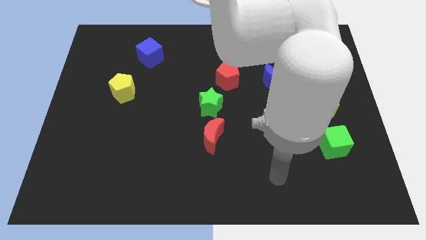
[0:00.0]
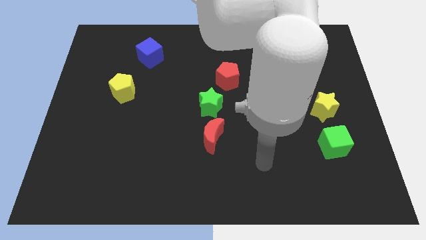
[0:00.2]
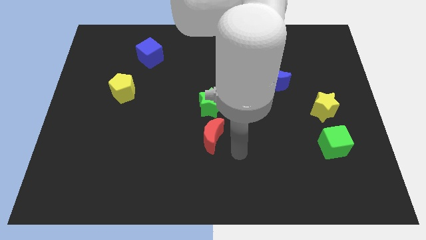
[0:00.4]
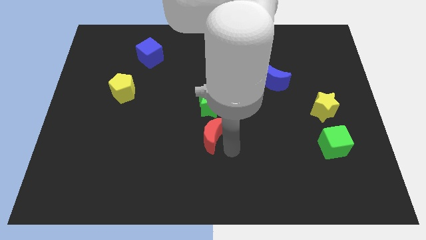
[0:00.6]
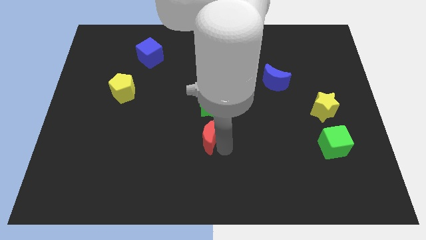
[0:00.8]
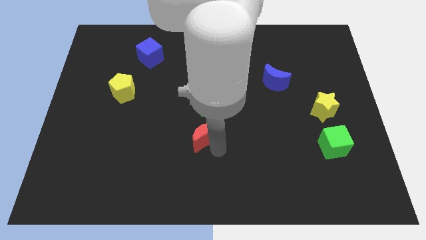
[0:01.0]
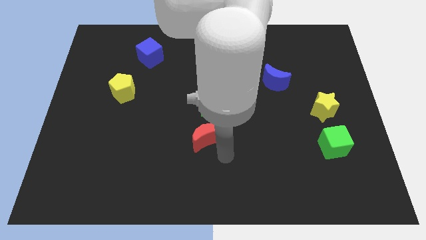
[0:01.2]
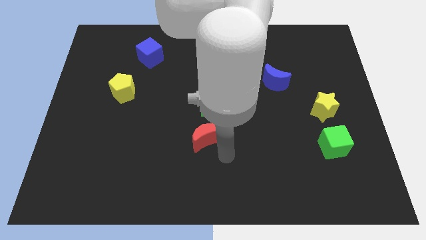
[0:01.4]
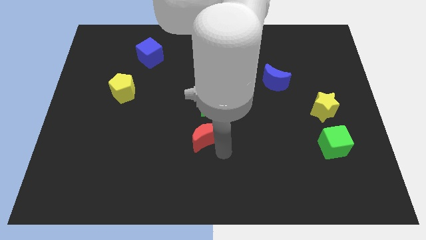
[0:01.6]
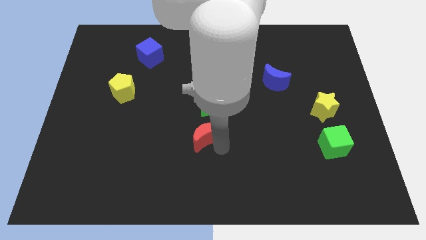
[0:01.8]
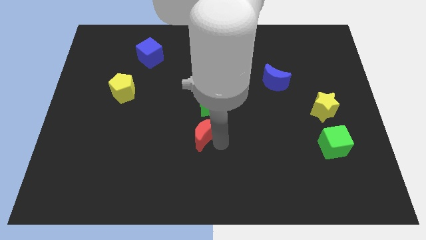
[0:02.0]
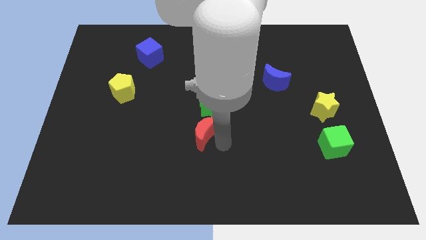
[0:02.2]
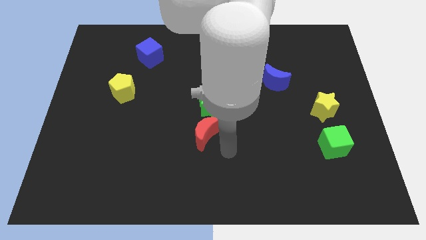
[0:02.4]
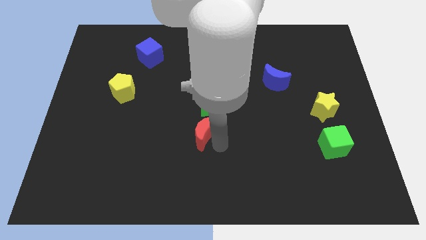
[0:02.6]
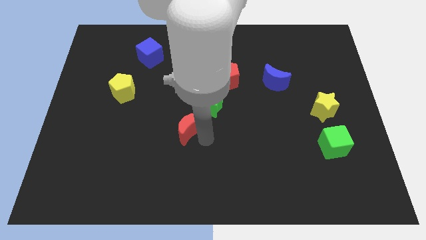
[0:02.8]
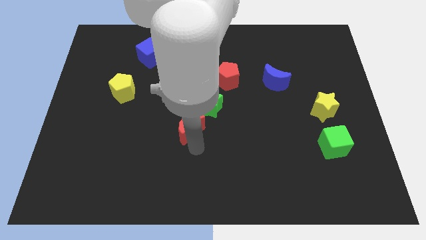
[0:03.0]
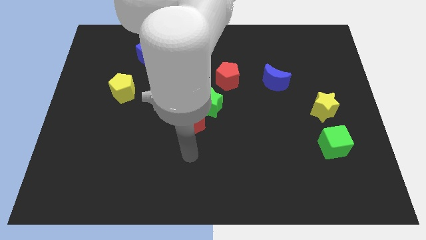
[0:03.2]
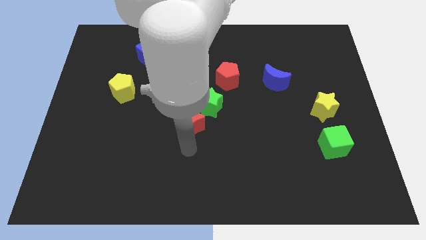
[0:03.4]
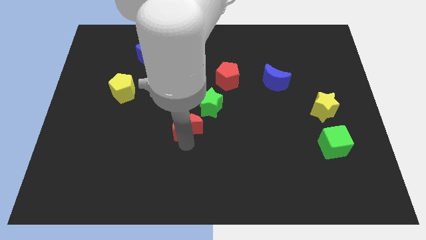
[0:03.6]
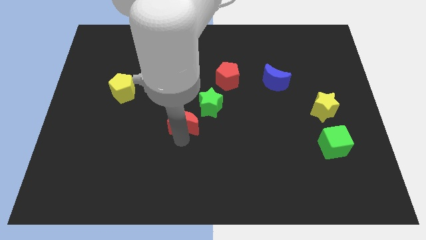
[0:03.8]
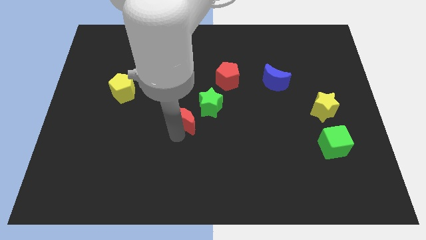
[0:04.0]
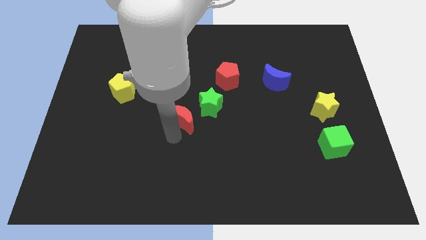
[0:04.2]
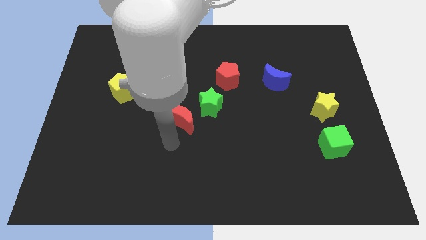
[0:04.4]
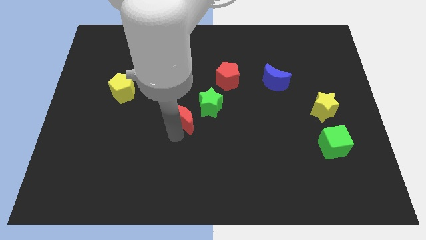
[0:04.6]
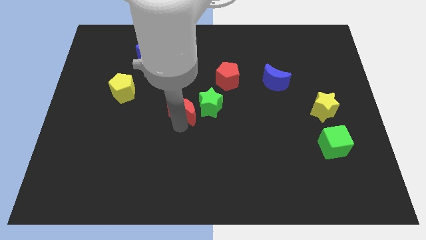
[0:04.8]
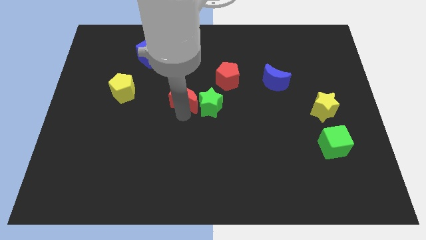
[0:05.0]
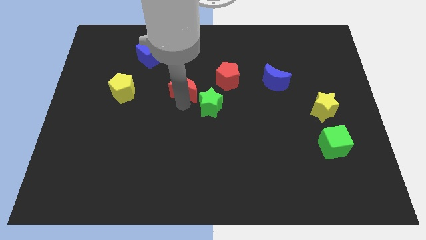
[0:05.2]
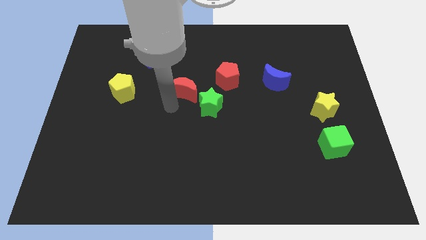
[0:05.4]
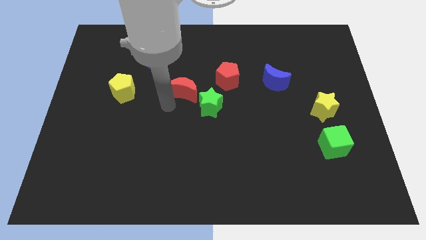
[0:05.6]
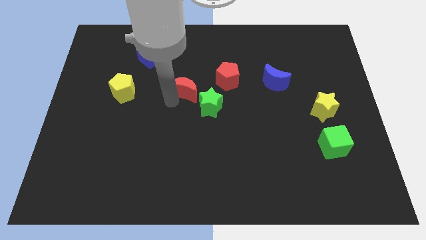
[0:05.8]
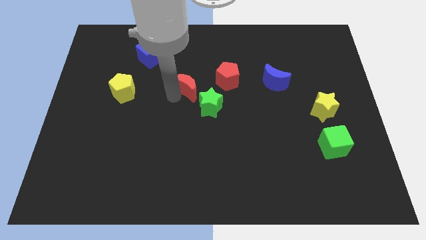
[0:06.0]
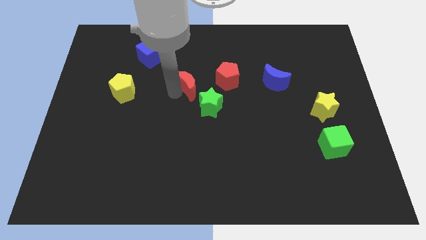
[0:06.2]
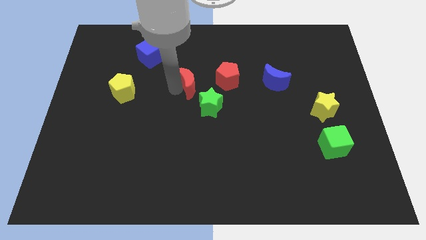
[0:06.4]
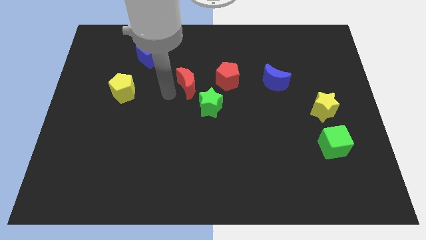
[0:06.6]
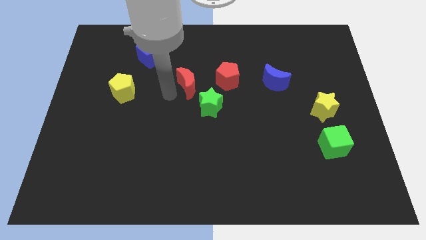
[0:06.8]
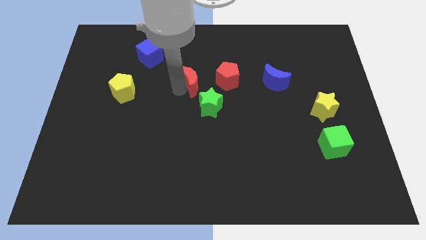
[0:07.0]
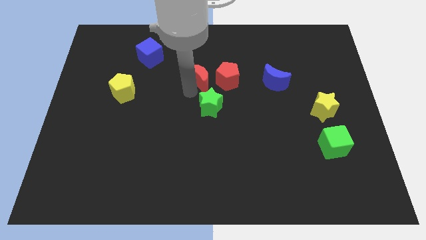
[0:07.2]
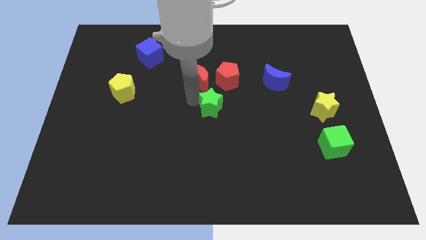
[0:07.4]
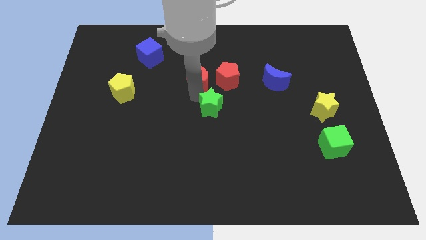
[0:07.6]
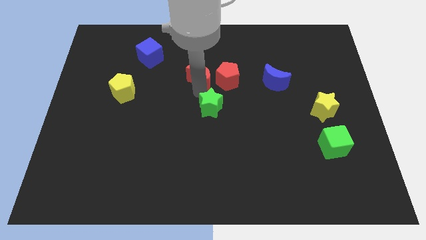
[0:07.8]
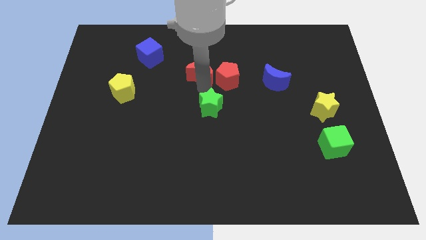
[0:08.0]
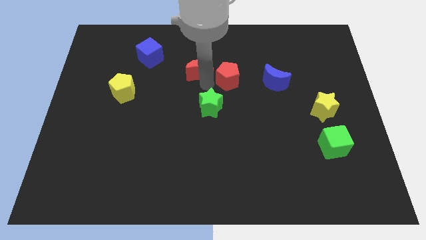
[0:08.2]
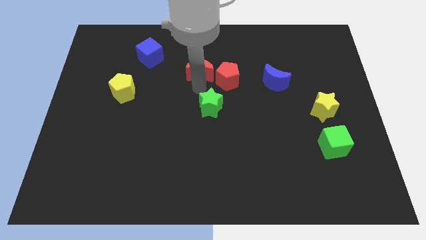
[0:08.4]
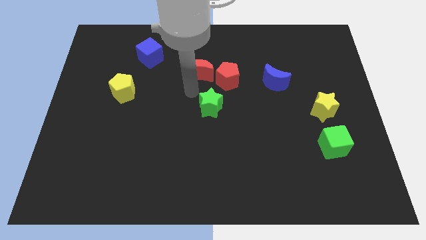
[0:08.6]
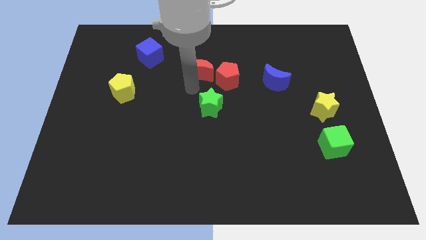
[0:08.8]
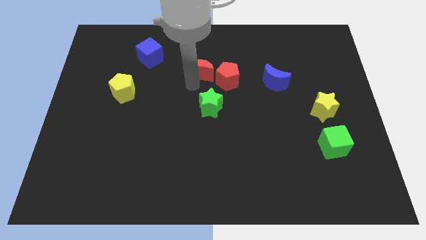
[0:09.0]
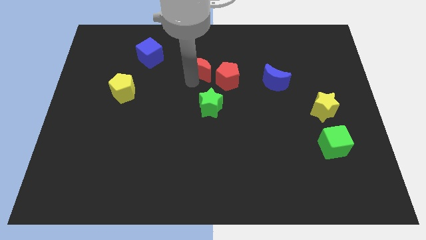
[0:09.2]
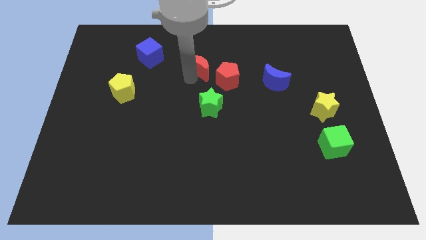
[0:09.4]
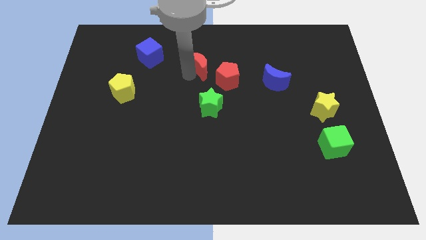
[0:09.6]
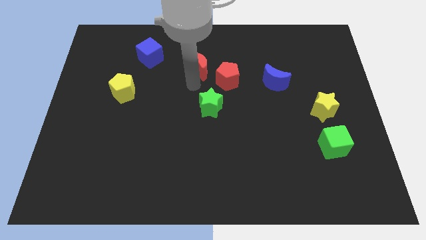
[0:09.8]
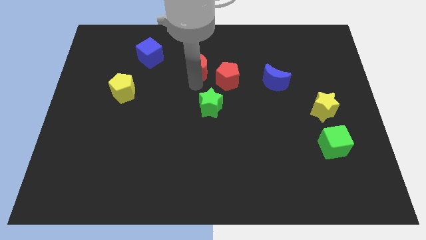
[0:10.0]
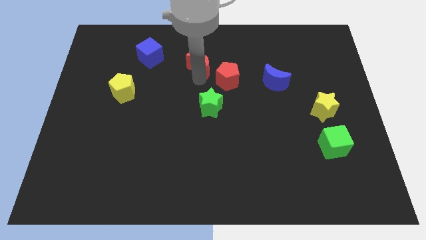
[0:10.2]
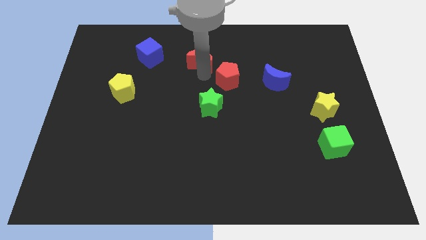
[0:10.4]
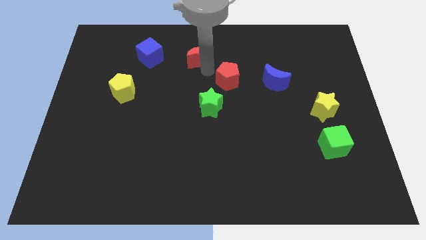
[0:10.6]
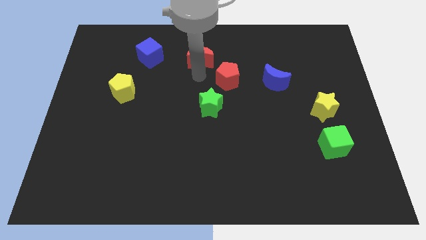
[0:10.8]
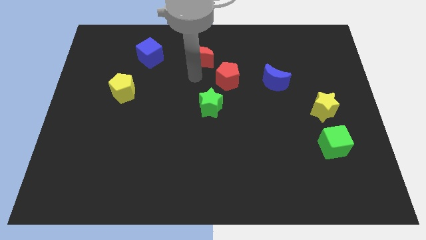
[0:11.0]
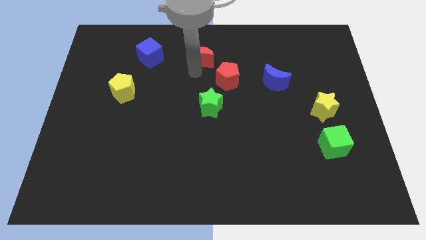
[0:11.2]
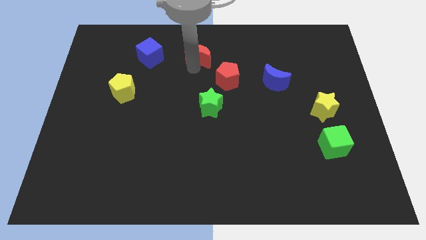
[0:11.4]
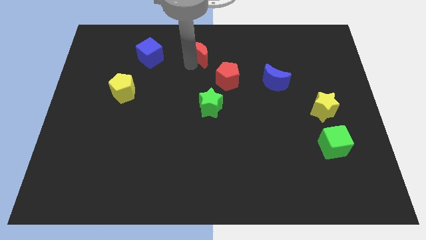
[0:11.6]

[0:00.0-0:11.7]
slide the red moon to the top side
